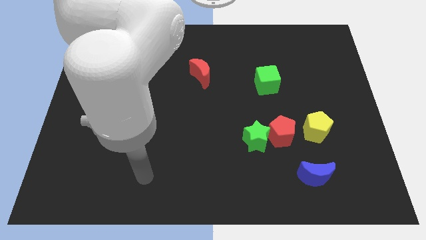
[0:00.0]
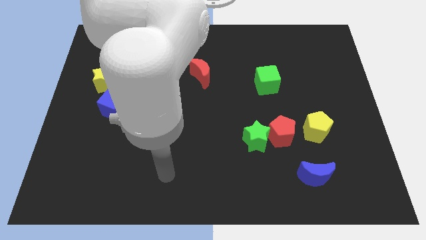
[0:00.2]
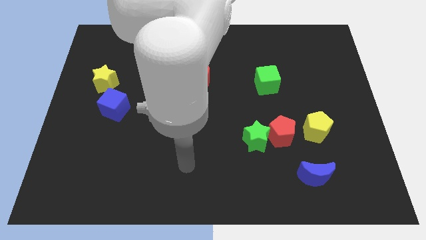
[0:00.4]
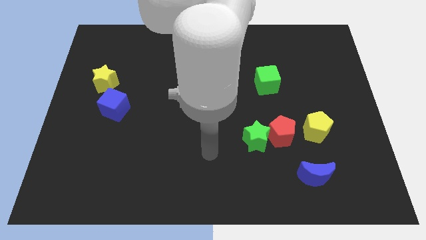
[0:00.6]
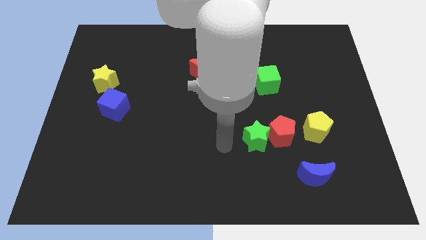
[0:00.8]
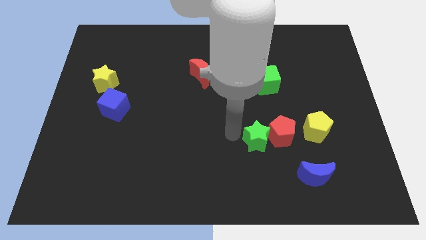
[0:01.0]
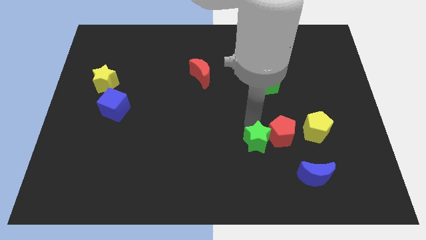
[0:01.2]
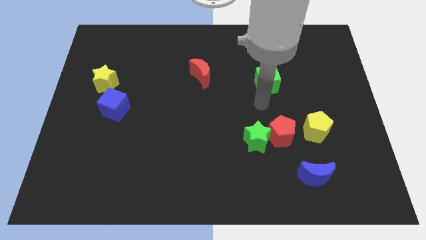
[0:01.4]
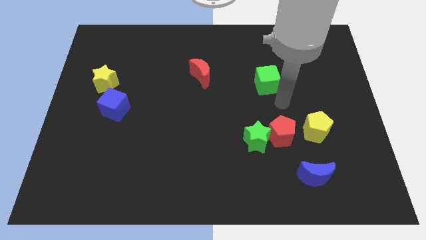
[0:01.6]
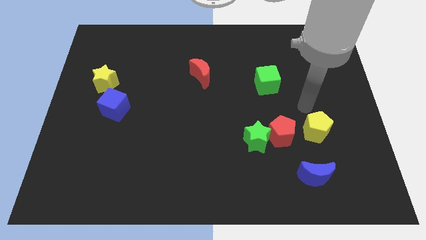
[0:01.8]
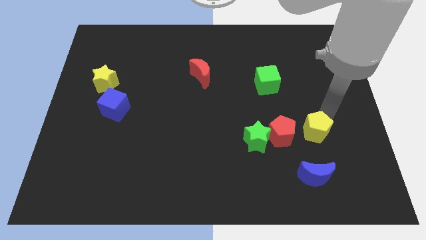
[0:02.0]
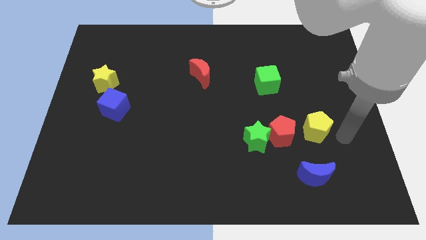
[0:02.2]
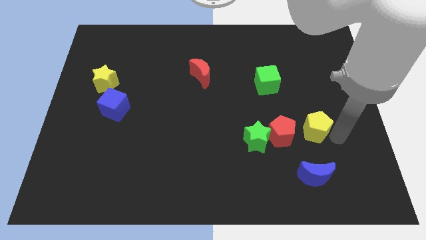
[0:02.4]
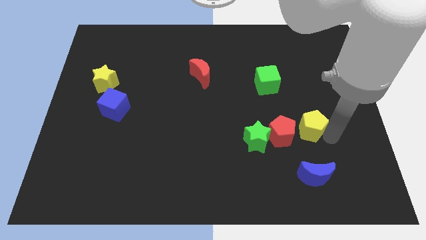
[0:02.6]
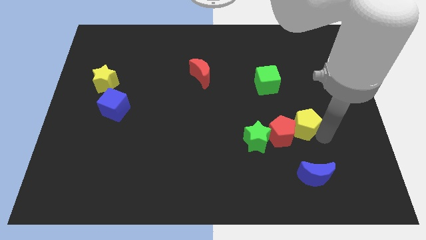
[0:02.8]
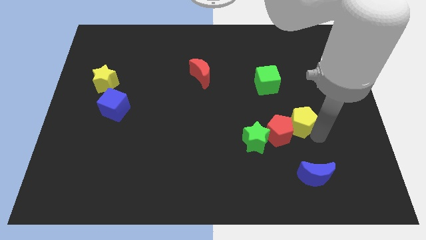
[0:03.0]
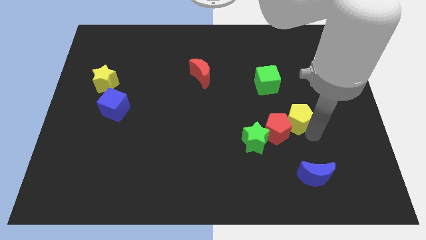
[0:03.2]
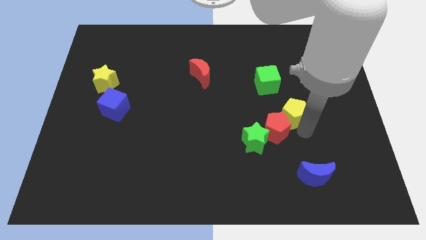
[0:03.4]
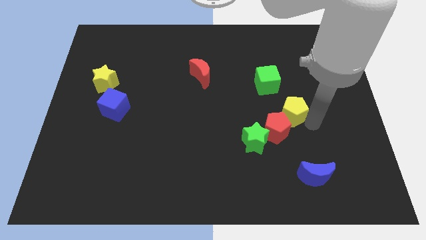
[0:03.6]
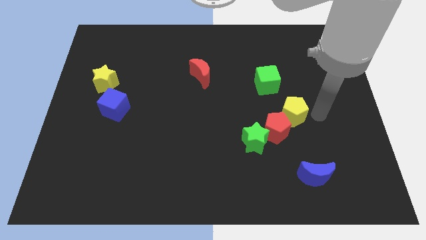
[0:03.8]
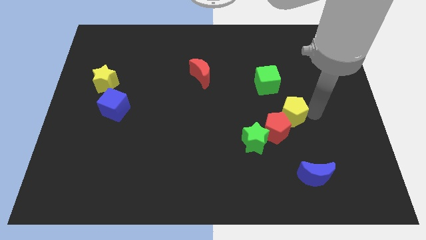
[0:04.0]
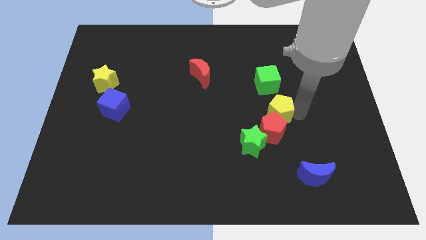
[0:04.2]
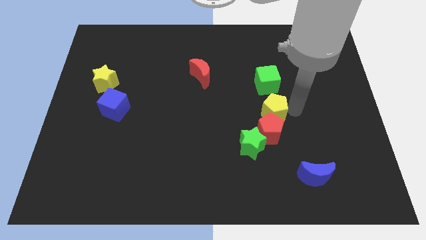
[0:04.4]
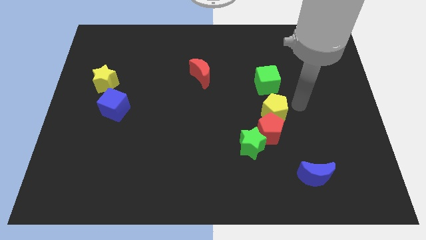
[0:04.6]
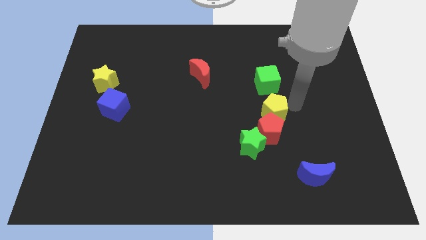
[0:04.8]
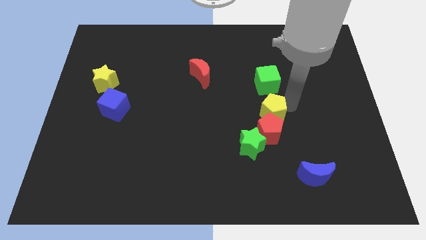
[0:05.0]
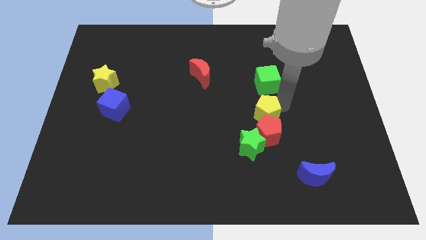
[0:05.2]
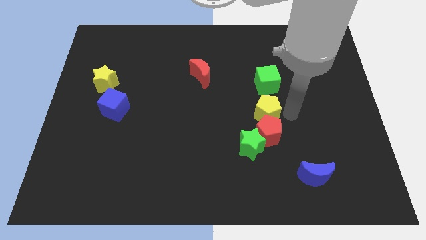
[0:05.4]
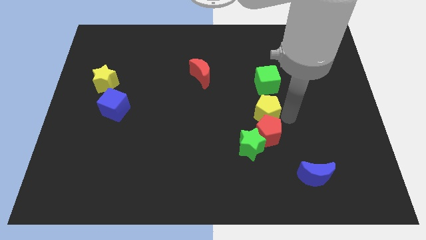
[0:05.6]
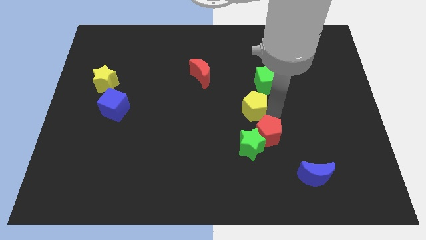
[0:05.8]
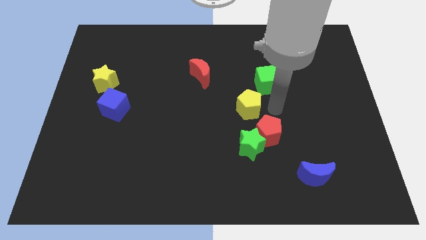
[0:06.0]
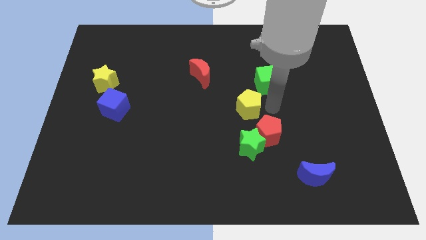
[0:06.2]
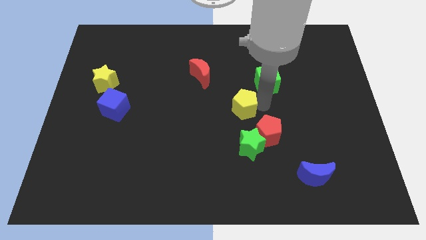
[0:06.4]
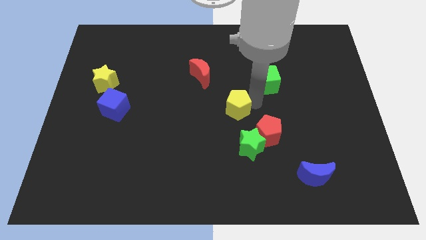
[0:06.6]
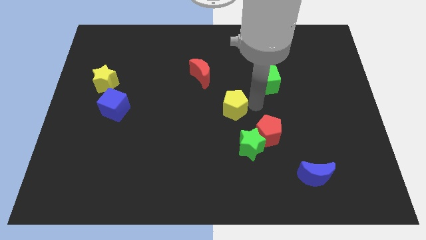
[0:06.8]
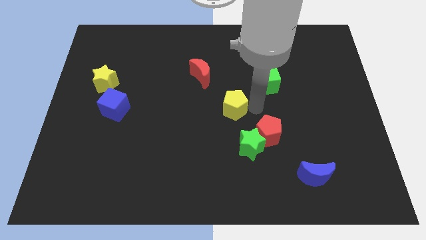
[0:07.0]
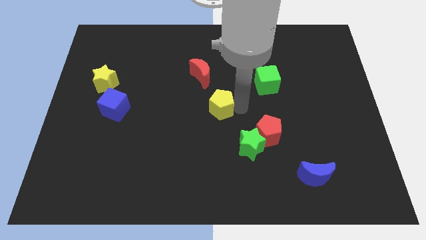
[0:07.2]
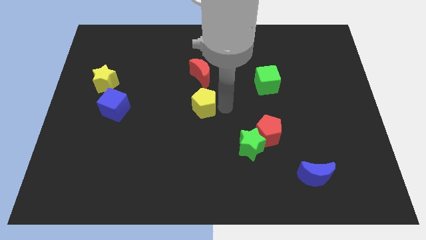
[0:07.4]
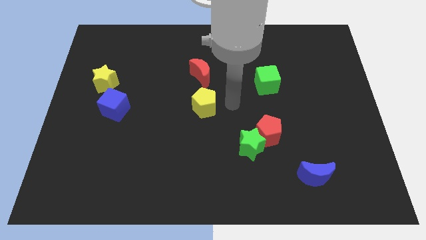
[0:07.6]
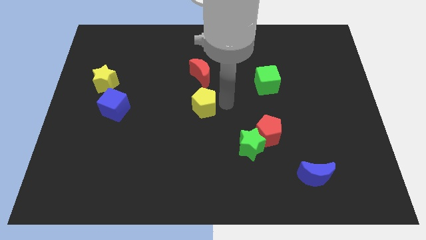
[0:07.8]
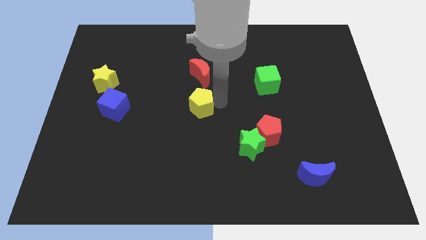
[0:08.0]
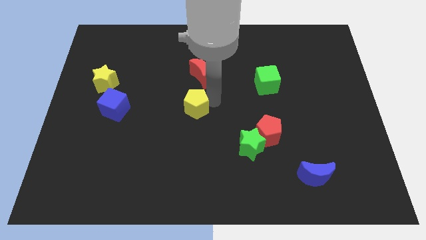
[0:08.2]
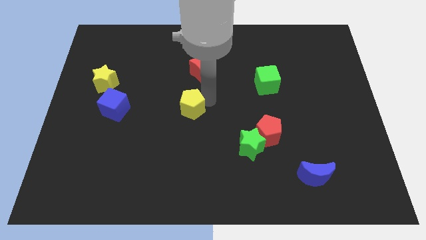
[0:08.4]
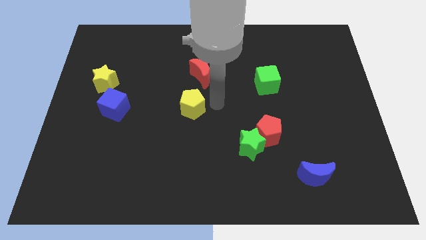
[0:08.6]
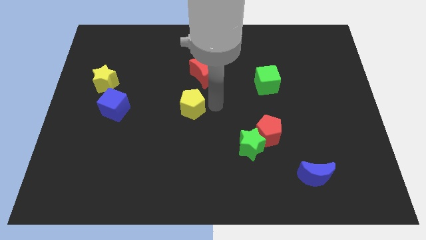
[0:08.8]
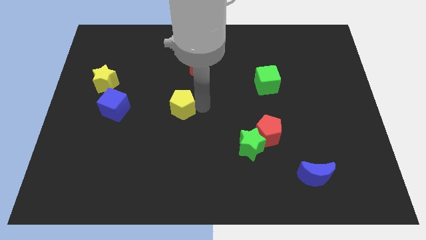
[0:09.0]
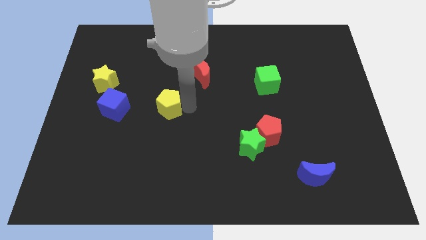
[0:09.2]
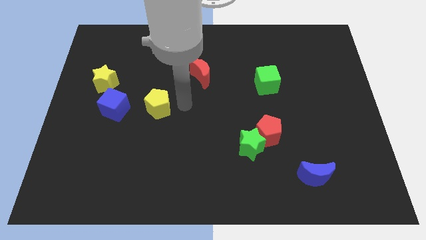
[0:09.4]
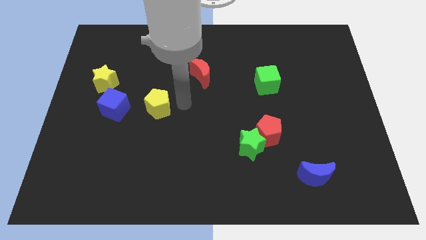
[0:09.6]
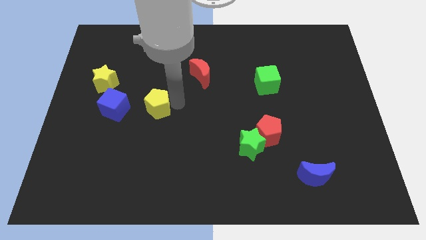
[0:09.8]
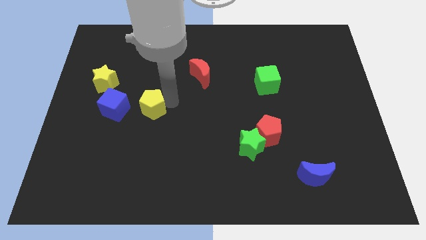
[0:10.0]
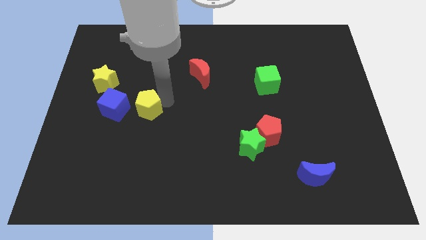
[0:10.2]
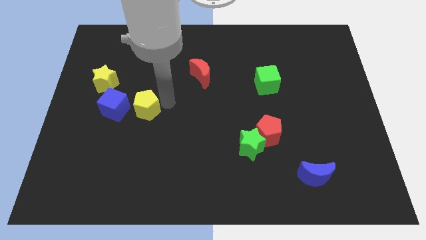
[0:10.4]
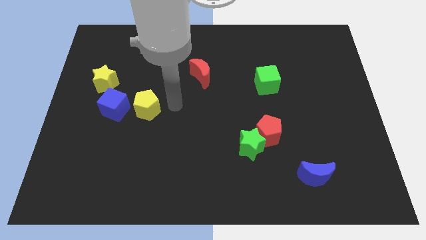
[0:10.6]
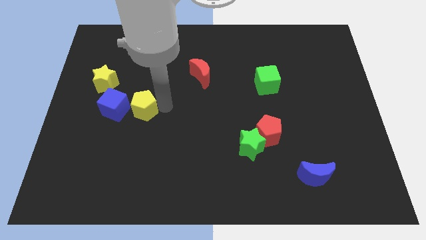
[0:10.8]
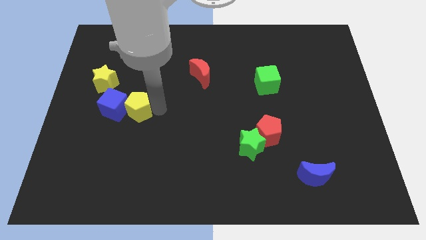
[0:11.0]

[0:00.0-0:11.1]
push the yellow pentagon towards the blue cube
